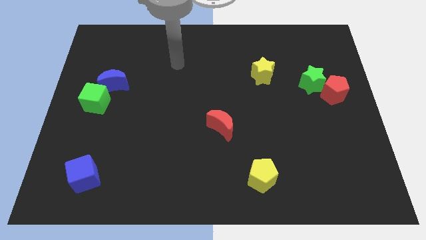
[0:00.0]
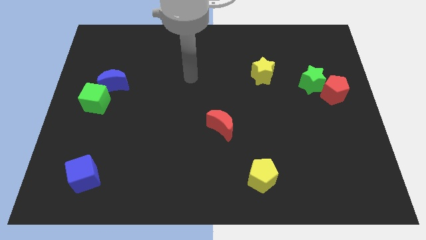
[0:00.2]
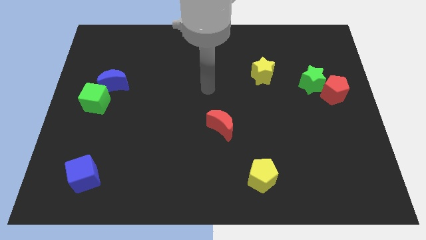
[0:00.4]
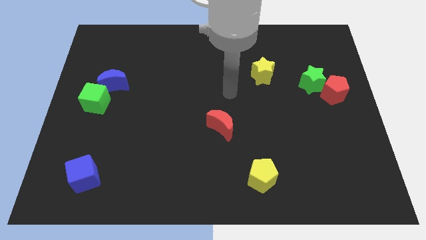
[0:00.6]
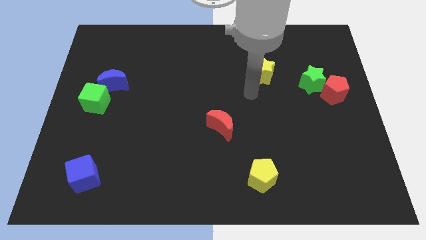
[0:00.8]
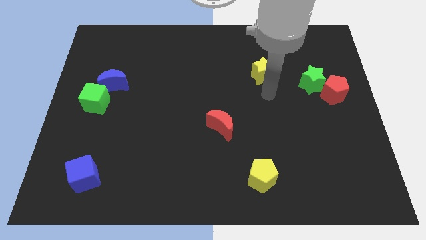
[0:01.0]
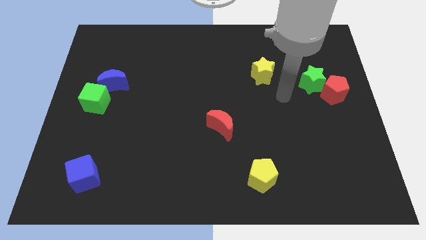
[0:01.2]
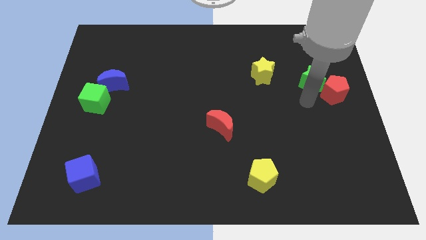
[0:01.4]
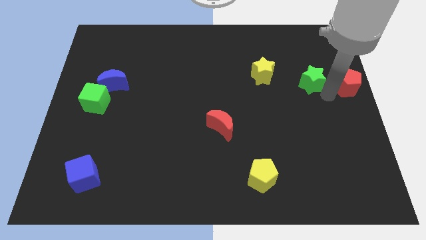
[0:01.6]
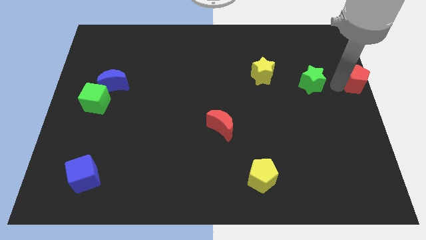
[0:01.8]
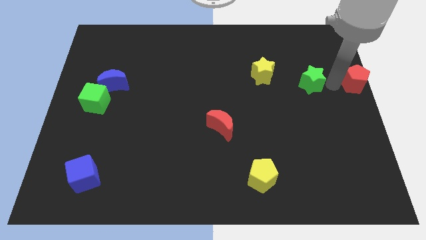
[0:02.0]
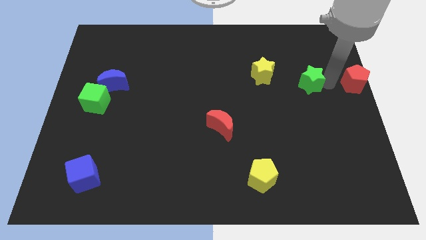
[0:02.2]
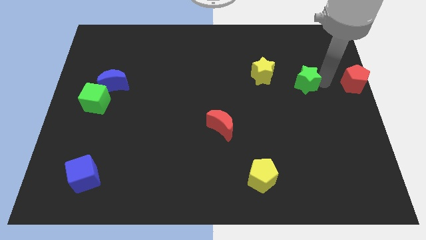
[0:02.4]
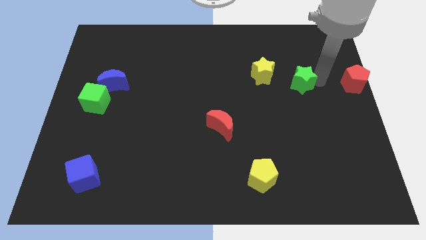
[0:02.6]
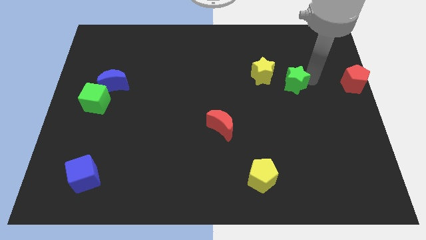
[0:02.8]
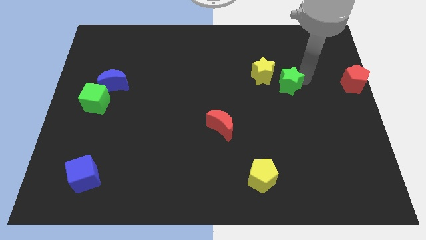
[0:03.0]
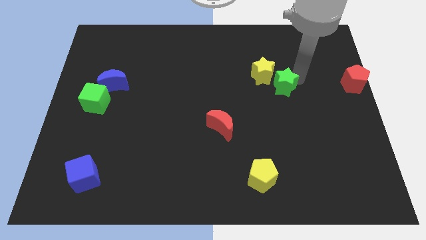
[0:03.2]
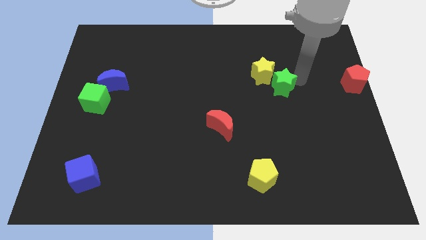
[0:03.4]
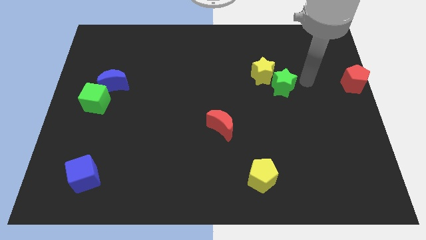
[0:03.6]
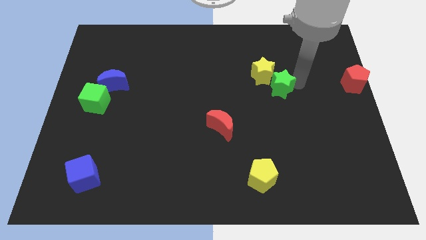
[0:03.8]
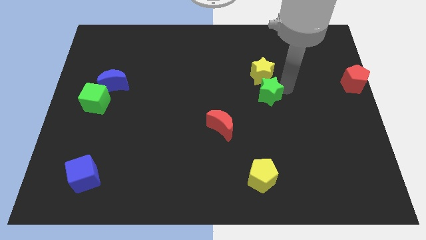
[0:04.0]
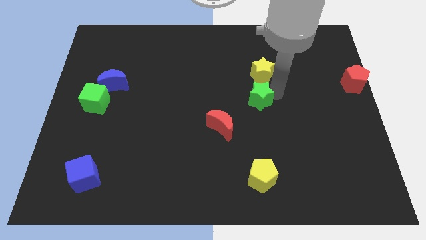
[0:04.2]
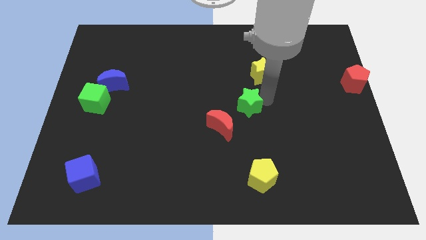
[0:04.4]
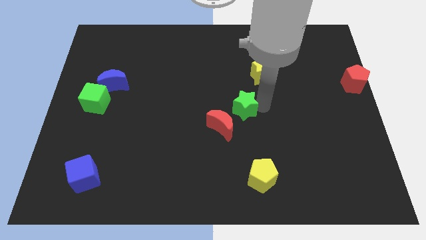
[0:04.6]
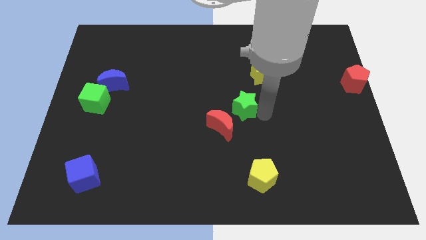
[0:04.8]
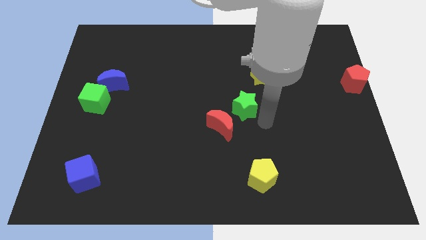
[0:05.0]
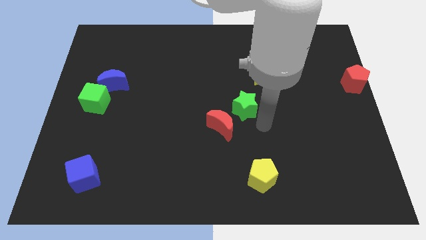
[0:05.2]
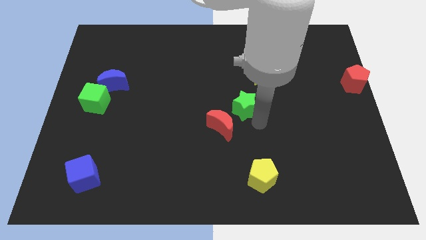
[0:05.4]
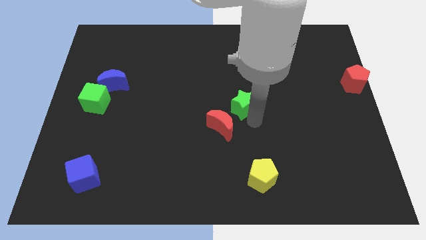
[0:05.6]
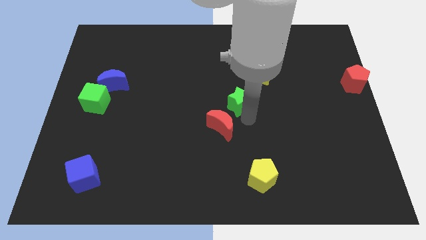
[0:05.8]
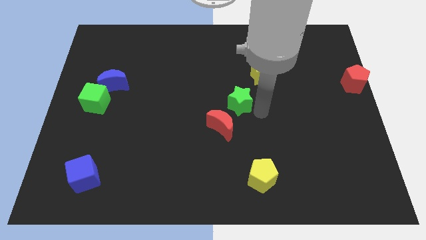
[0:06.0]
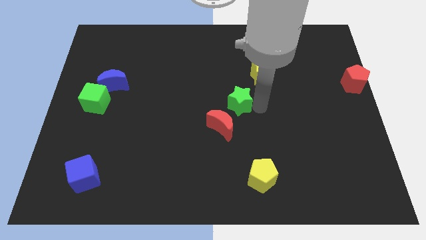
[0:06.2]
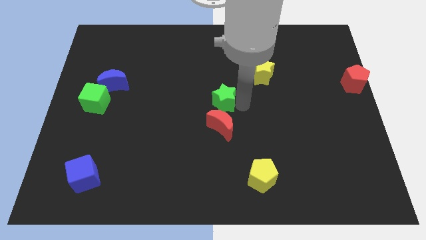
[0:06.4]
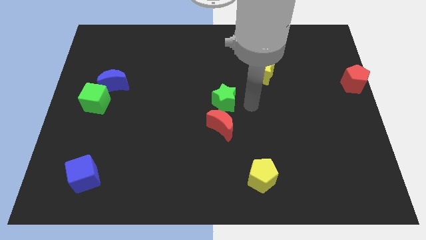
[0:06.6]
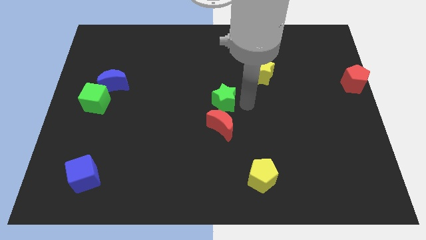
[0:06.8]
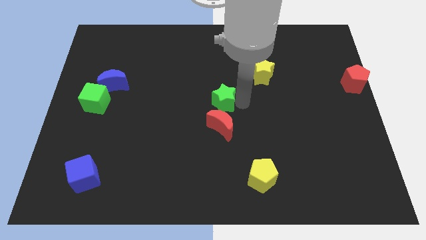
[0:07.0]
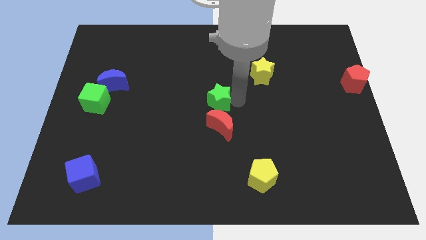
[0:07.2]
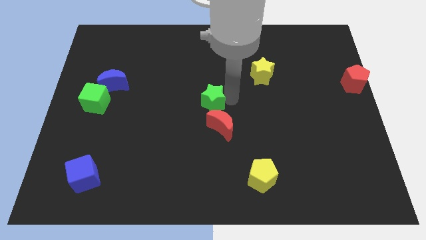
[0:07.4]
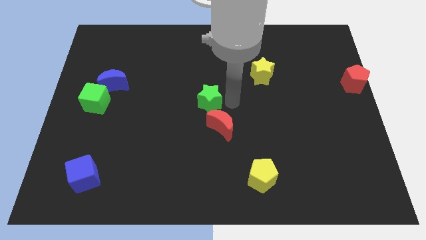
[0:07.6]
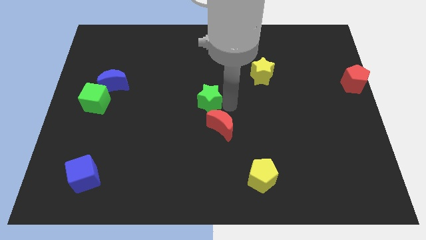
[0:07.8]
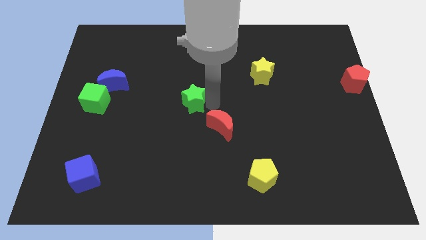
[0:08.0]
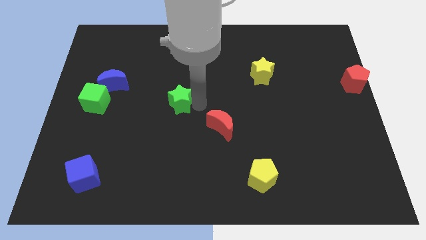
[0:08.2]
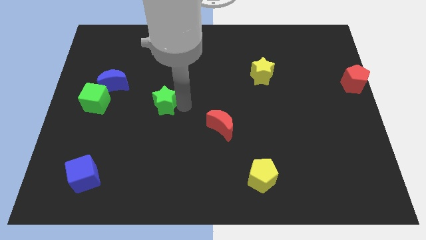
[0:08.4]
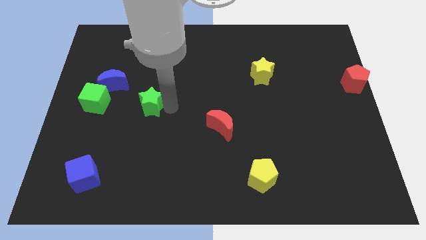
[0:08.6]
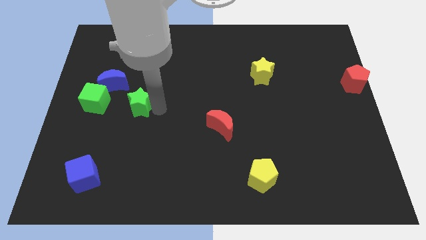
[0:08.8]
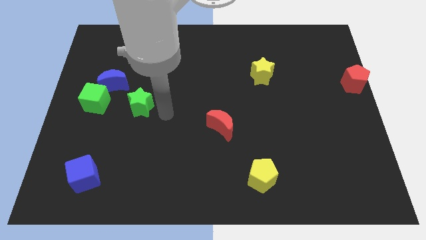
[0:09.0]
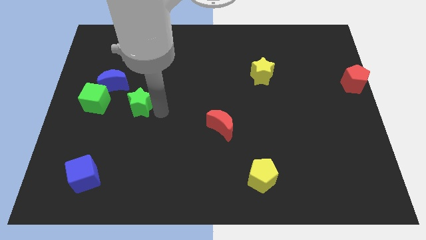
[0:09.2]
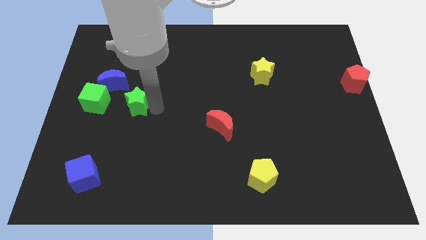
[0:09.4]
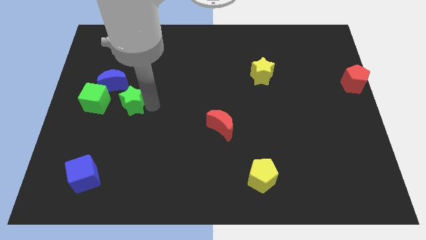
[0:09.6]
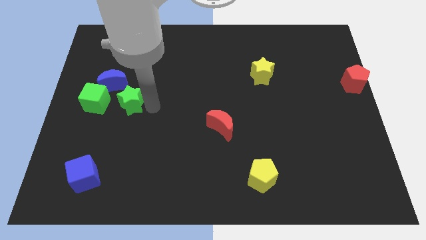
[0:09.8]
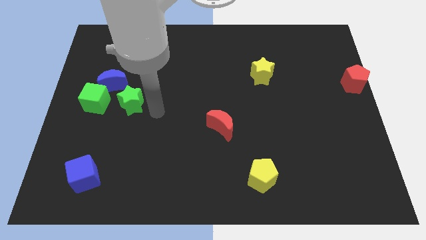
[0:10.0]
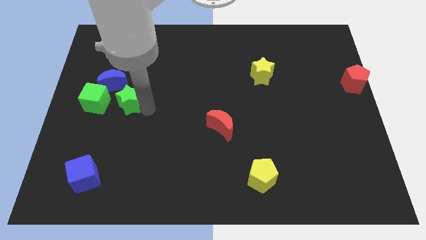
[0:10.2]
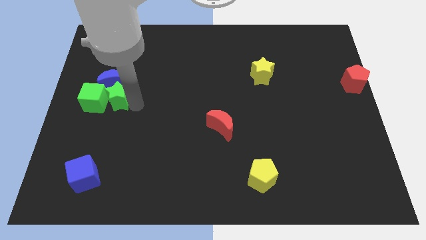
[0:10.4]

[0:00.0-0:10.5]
move the green star towards the green cube

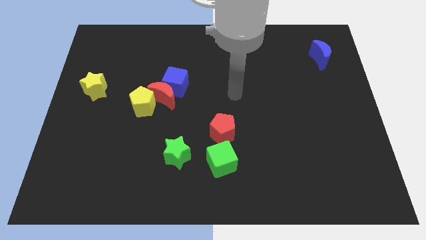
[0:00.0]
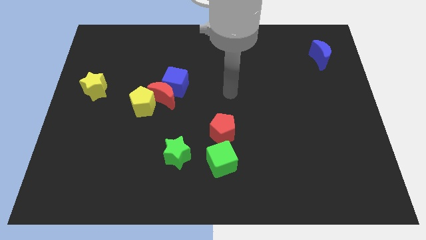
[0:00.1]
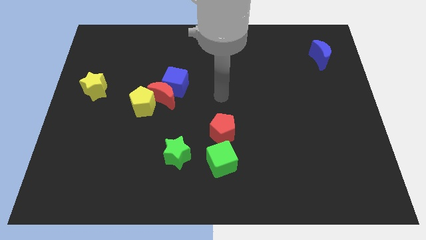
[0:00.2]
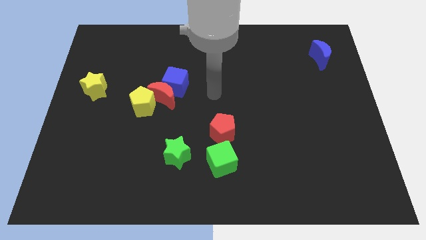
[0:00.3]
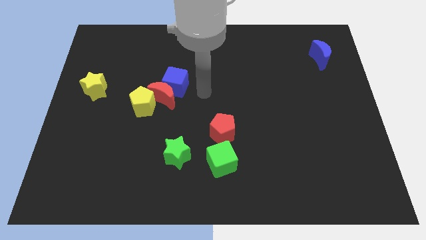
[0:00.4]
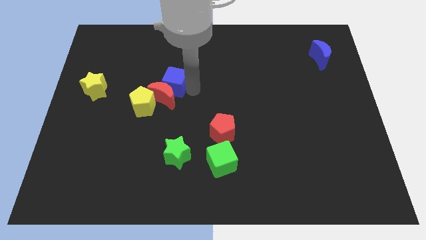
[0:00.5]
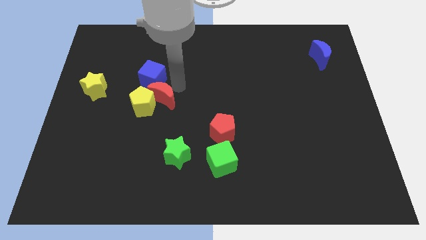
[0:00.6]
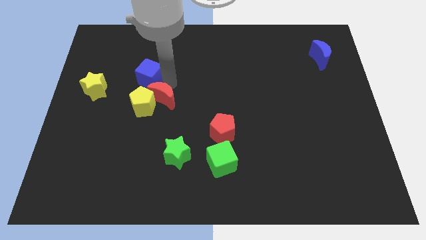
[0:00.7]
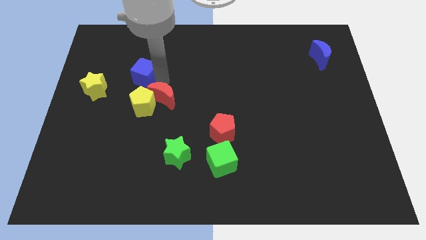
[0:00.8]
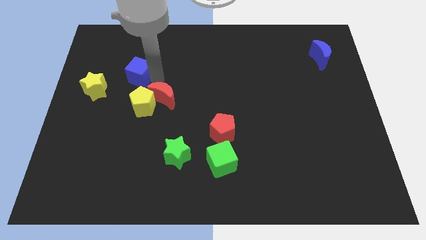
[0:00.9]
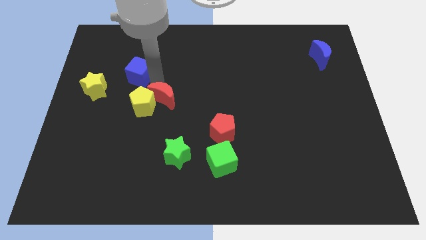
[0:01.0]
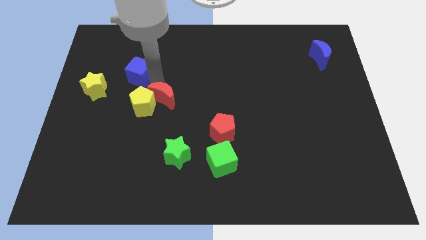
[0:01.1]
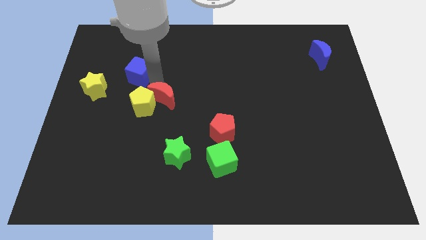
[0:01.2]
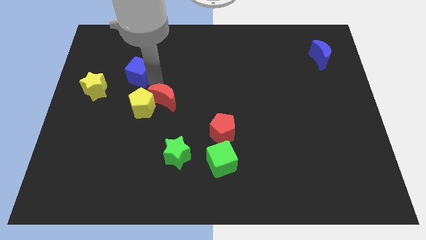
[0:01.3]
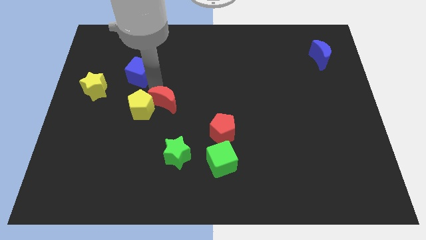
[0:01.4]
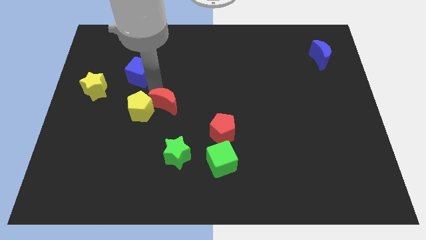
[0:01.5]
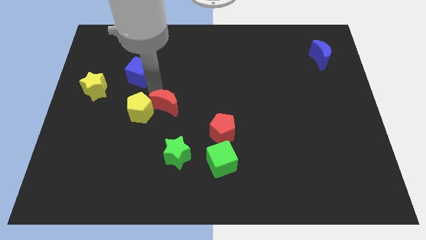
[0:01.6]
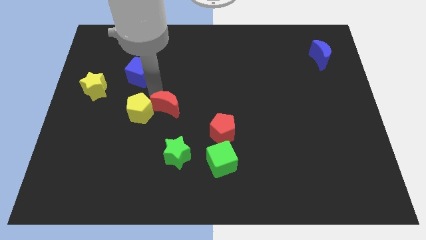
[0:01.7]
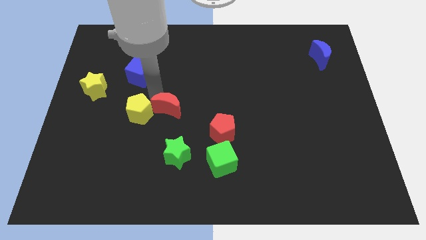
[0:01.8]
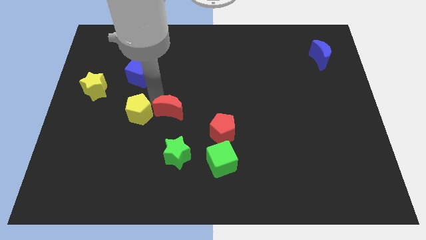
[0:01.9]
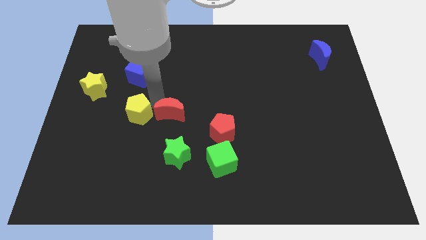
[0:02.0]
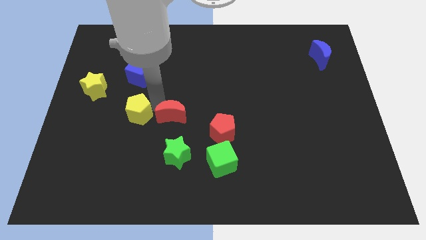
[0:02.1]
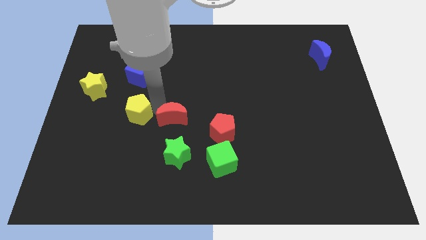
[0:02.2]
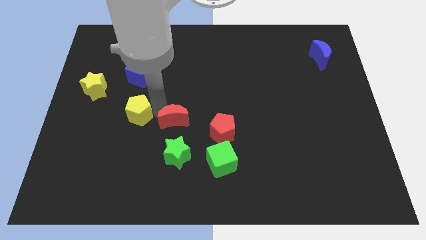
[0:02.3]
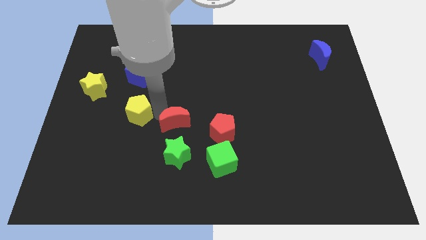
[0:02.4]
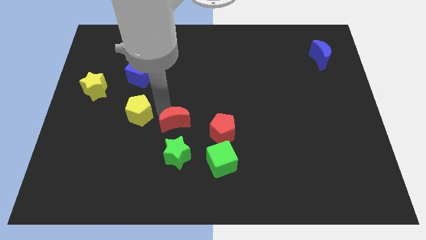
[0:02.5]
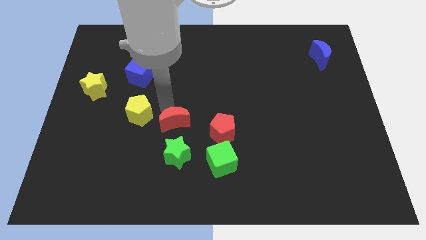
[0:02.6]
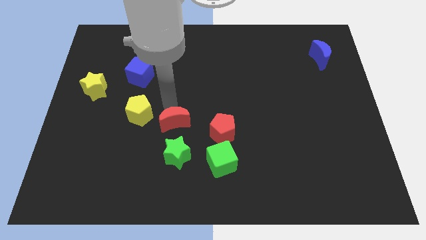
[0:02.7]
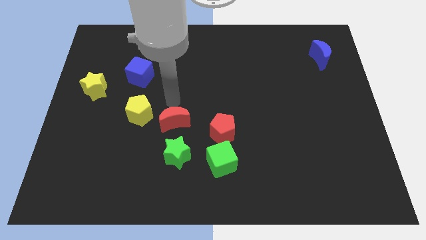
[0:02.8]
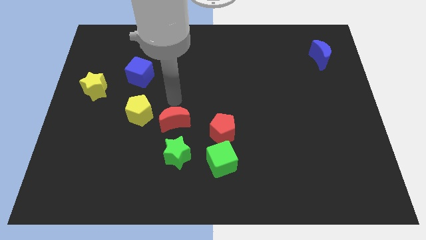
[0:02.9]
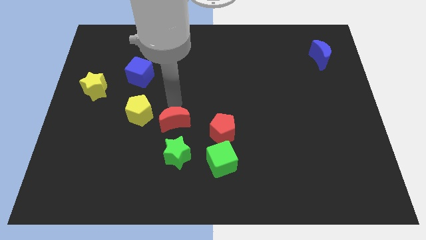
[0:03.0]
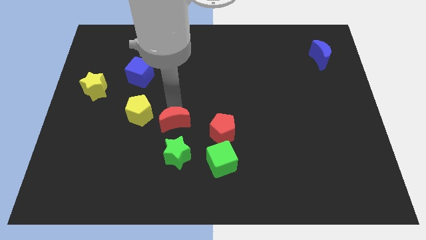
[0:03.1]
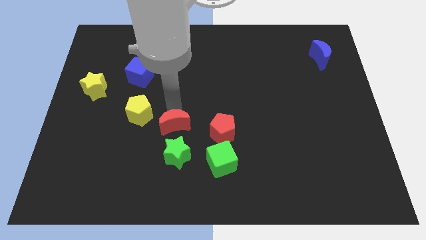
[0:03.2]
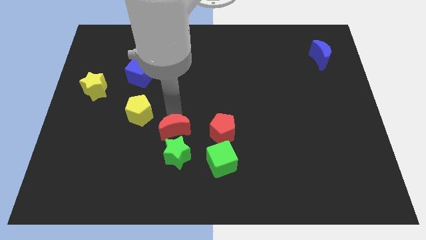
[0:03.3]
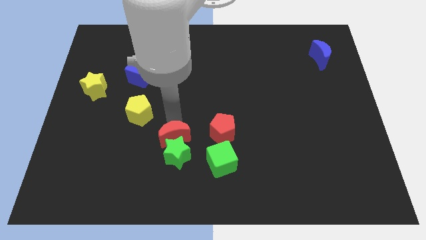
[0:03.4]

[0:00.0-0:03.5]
push the red moon to the green star
